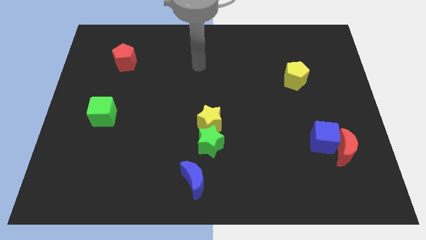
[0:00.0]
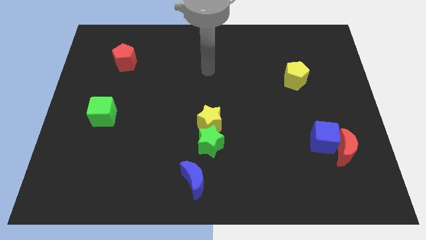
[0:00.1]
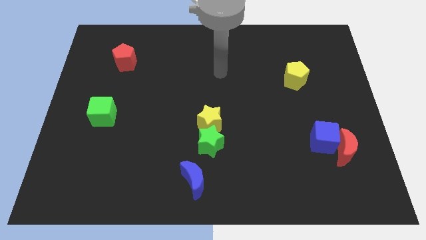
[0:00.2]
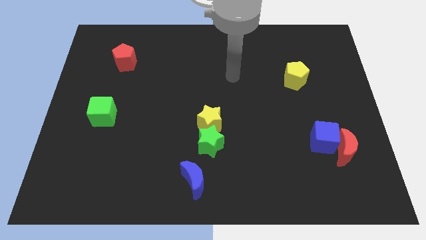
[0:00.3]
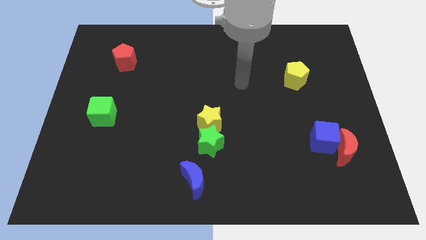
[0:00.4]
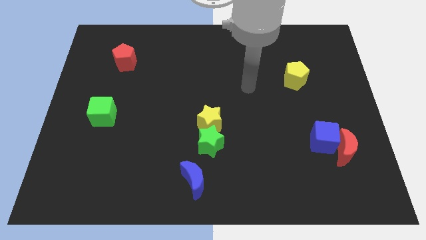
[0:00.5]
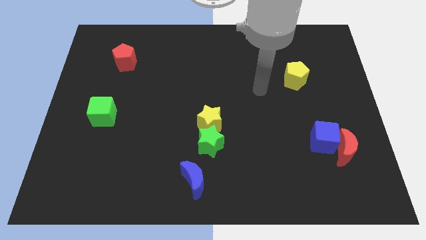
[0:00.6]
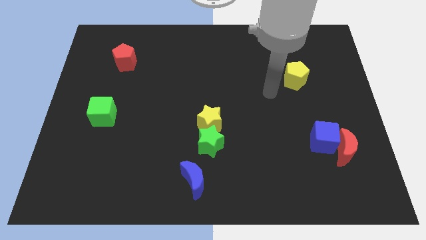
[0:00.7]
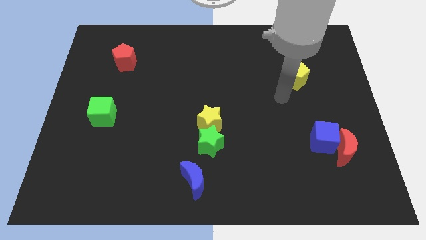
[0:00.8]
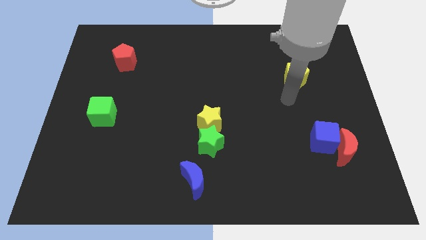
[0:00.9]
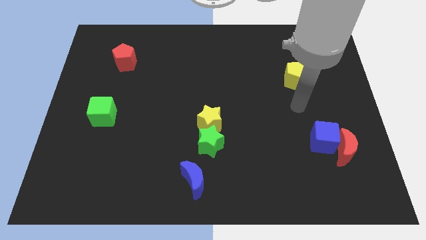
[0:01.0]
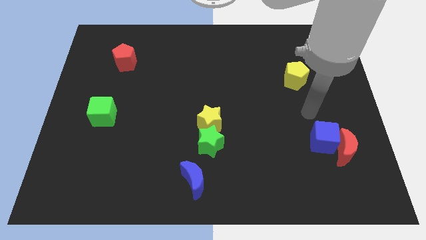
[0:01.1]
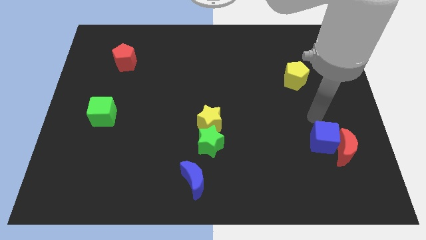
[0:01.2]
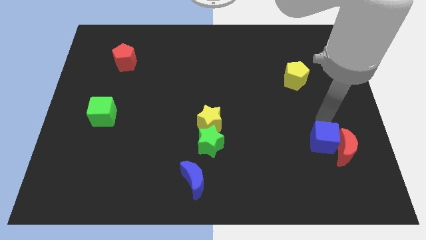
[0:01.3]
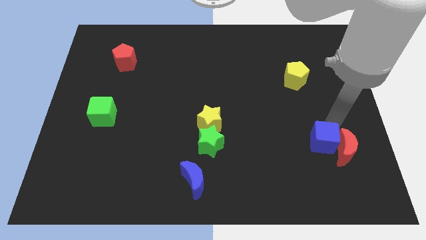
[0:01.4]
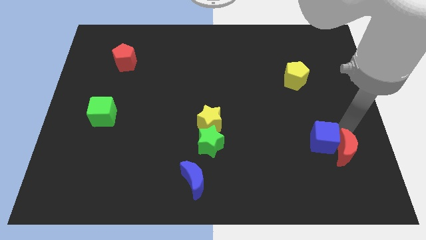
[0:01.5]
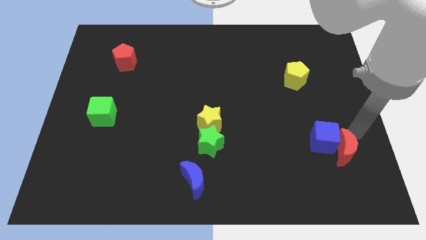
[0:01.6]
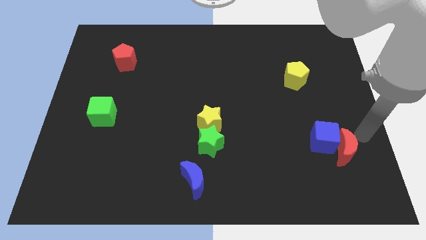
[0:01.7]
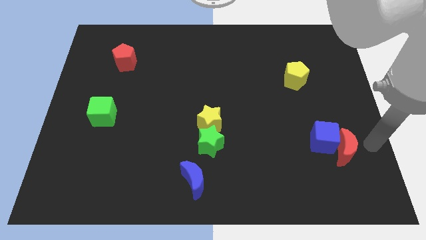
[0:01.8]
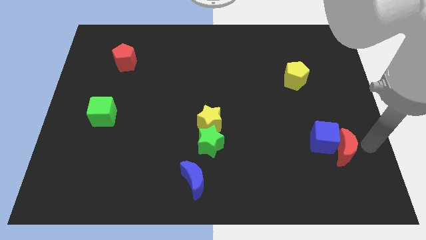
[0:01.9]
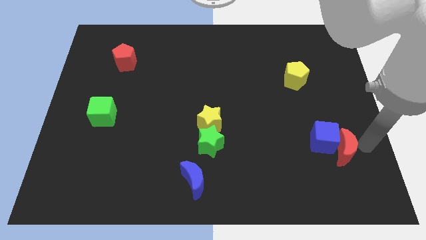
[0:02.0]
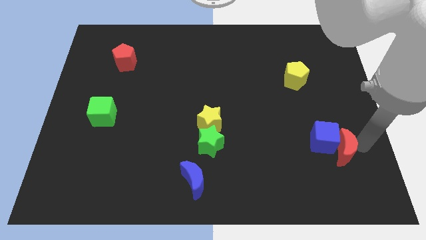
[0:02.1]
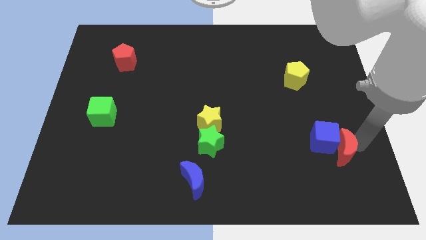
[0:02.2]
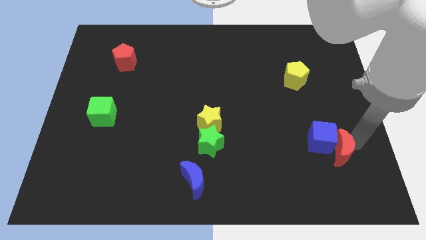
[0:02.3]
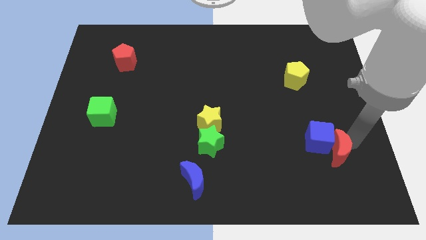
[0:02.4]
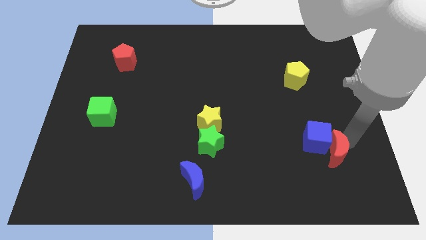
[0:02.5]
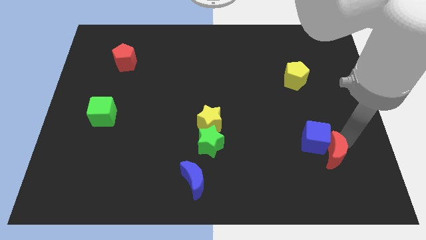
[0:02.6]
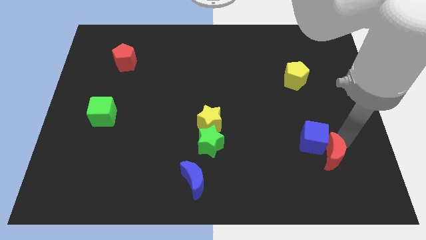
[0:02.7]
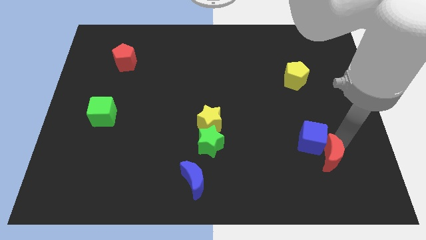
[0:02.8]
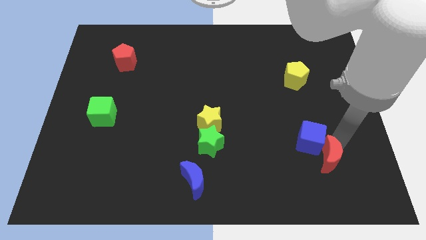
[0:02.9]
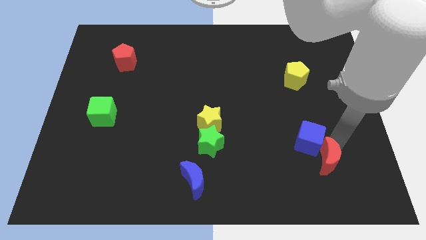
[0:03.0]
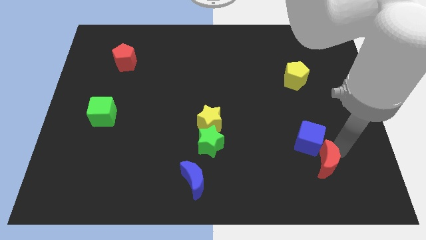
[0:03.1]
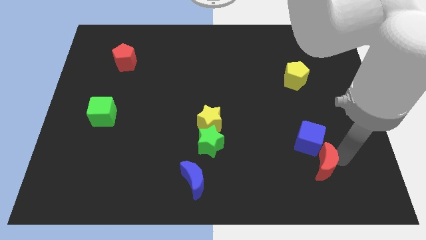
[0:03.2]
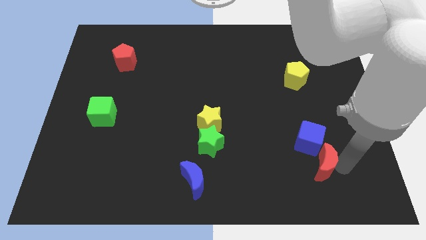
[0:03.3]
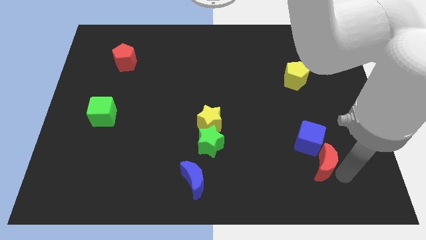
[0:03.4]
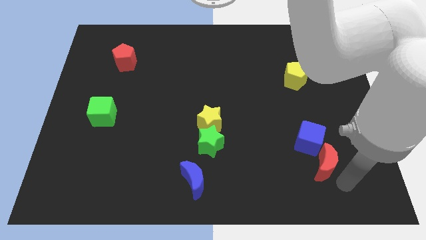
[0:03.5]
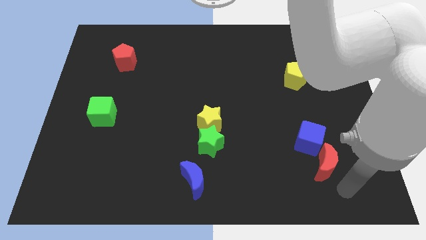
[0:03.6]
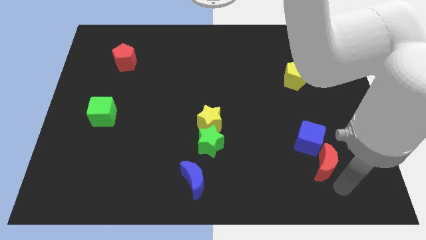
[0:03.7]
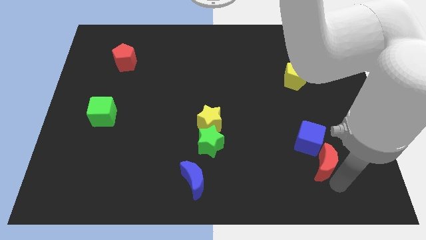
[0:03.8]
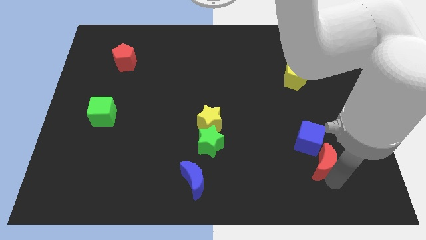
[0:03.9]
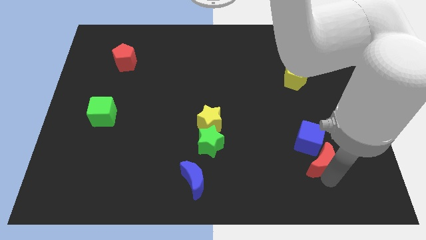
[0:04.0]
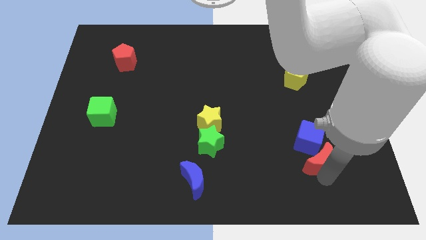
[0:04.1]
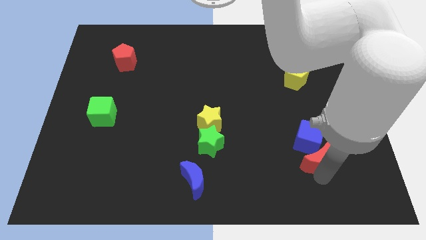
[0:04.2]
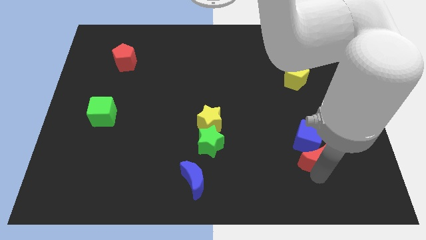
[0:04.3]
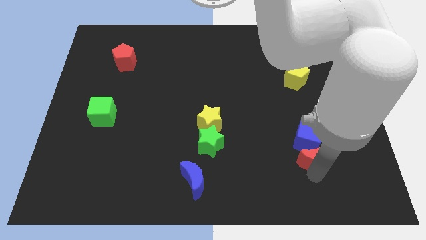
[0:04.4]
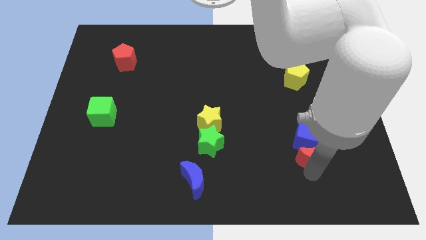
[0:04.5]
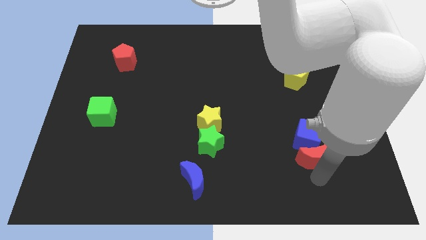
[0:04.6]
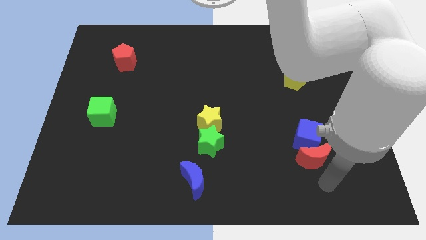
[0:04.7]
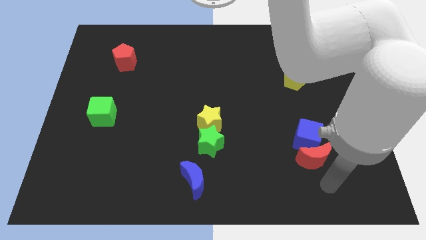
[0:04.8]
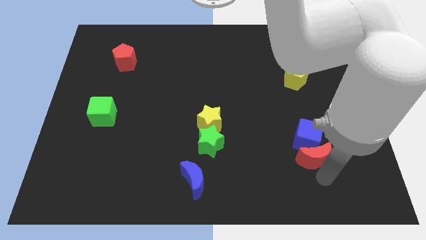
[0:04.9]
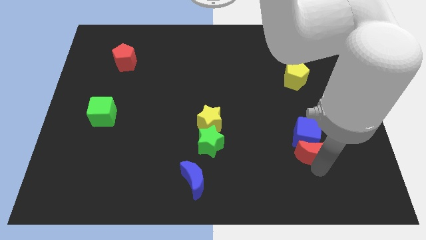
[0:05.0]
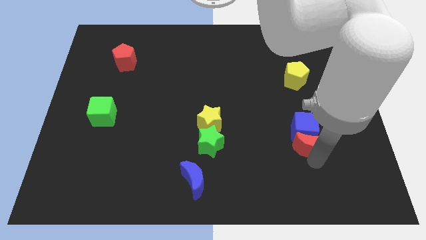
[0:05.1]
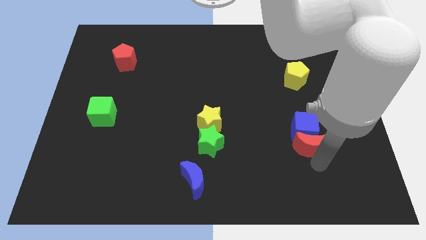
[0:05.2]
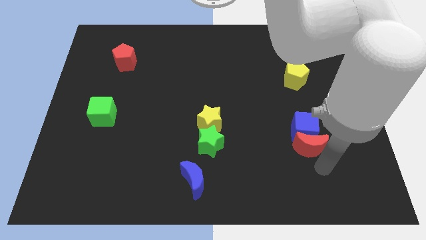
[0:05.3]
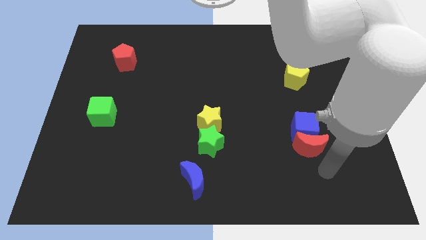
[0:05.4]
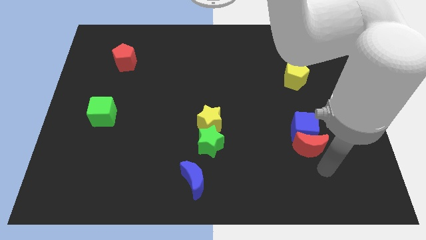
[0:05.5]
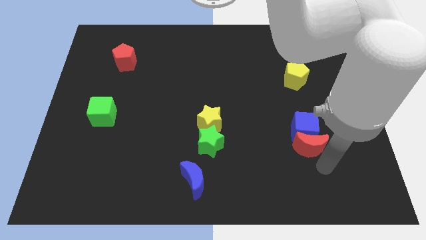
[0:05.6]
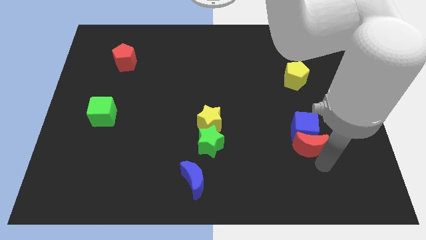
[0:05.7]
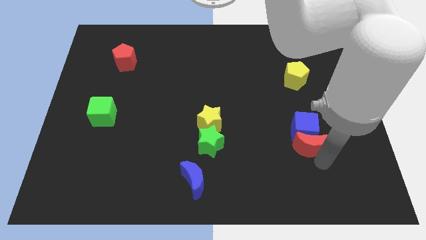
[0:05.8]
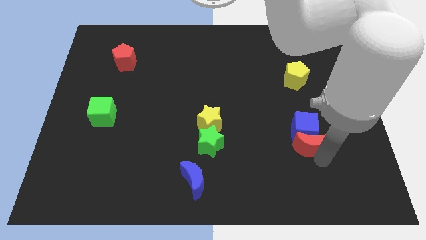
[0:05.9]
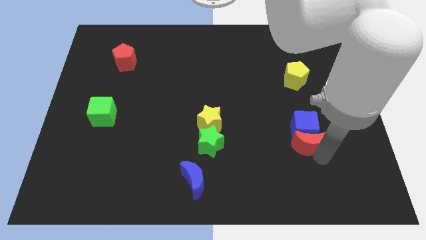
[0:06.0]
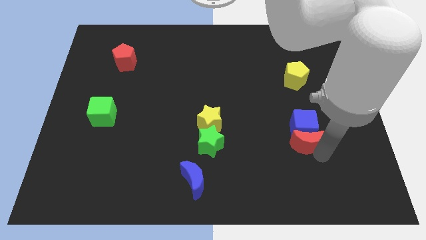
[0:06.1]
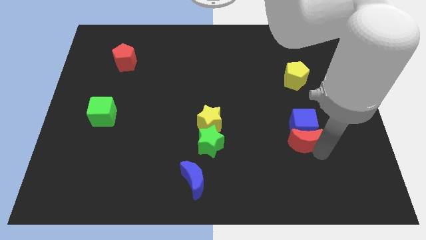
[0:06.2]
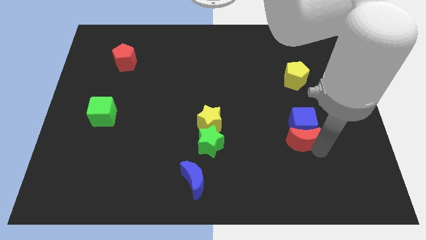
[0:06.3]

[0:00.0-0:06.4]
slide the red moon slightly diagonally upwards and to the left

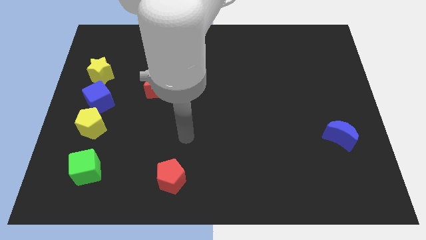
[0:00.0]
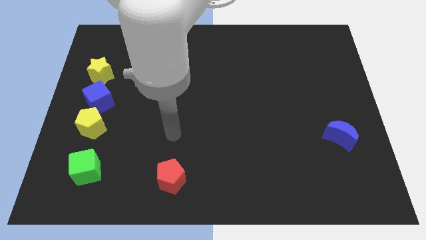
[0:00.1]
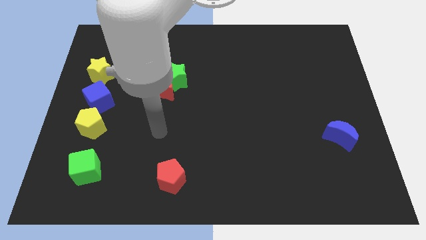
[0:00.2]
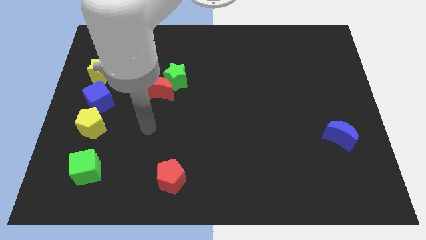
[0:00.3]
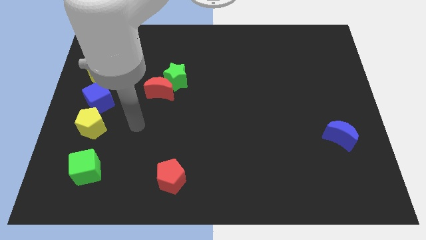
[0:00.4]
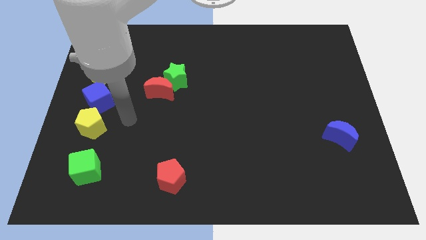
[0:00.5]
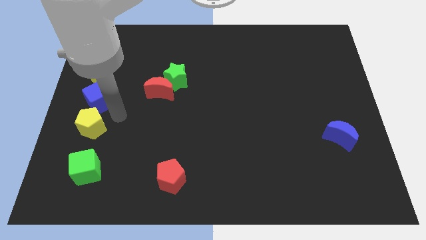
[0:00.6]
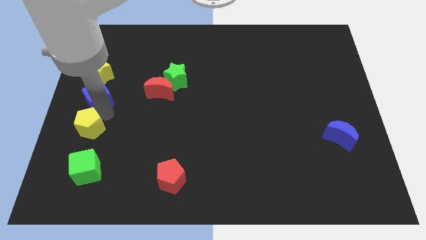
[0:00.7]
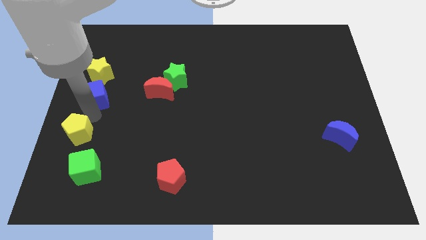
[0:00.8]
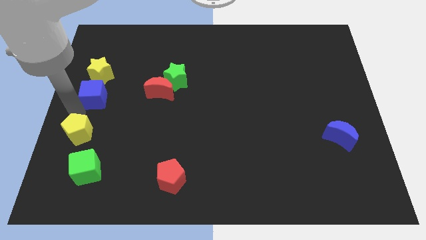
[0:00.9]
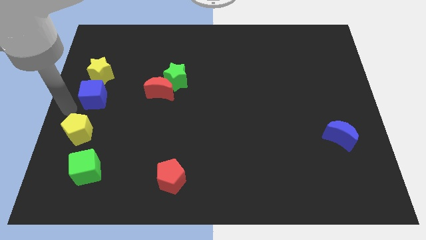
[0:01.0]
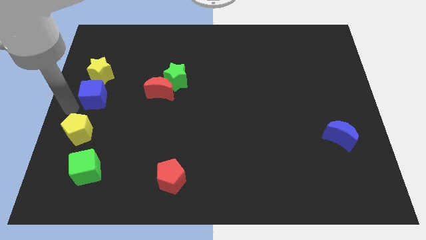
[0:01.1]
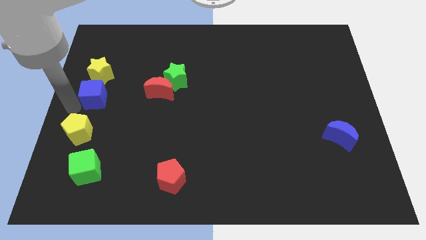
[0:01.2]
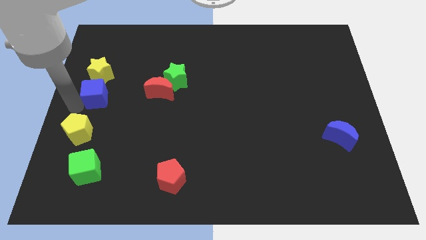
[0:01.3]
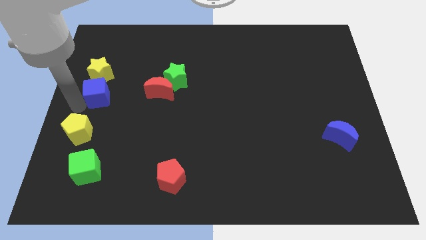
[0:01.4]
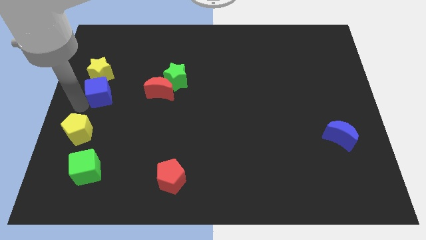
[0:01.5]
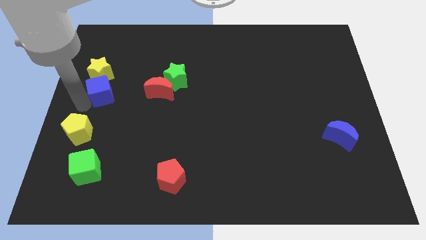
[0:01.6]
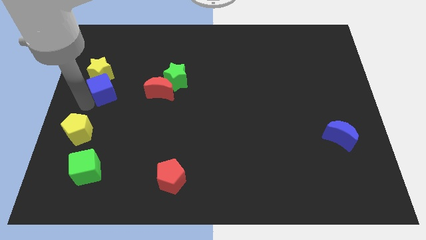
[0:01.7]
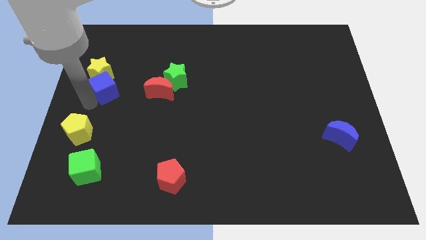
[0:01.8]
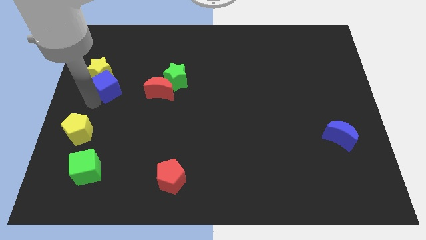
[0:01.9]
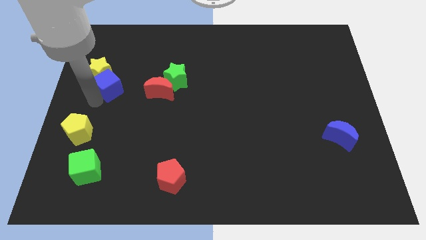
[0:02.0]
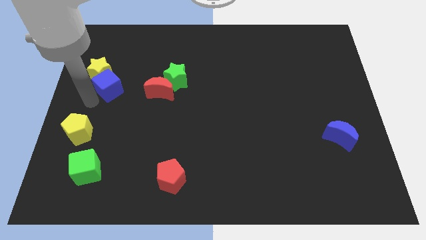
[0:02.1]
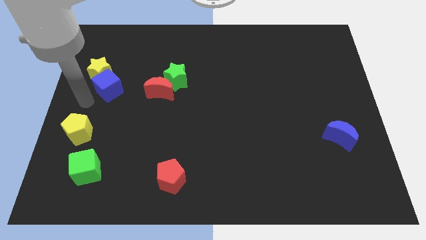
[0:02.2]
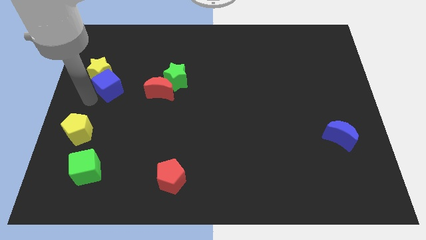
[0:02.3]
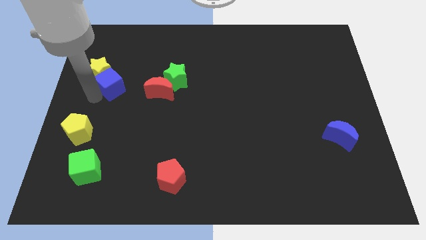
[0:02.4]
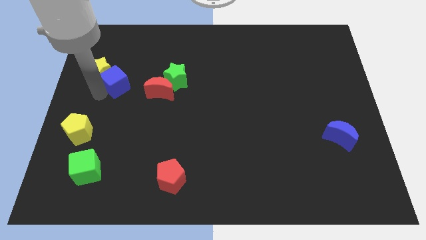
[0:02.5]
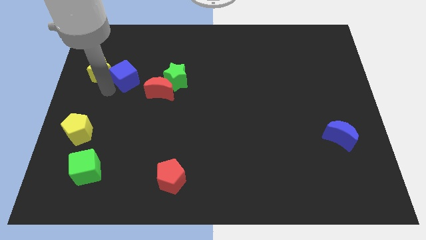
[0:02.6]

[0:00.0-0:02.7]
push the blue cube somewhat up and right
